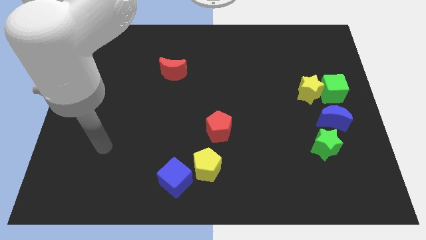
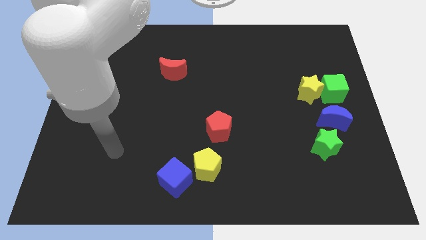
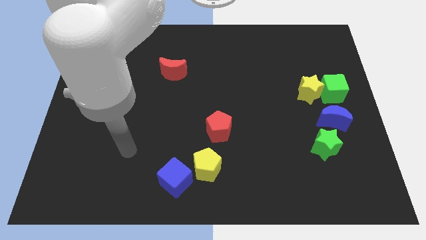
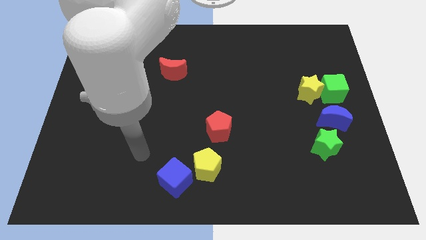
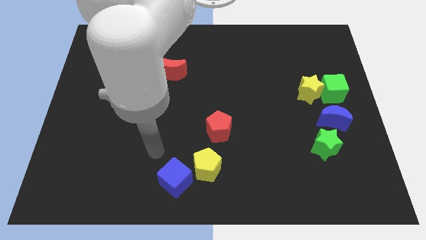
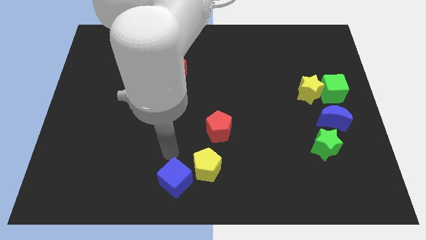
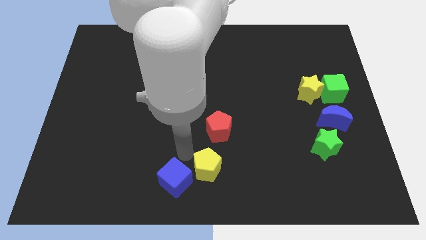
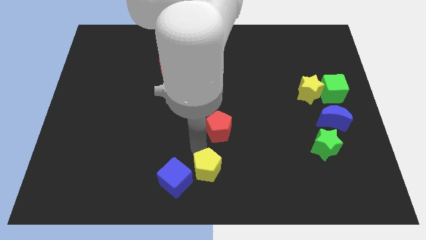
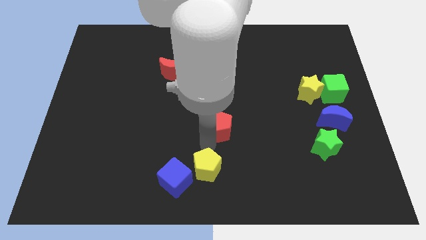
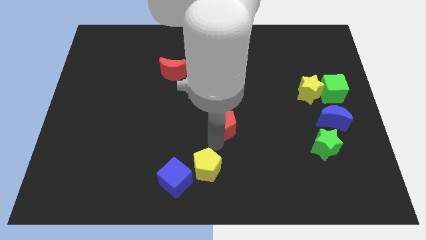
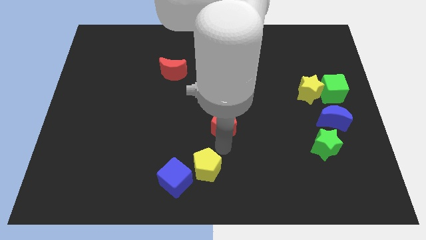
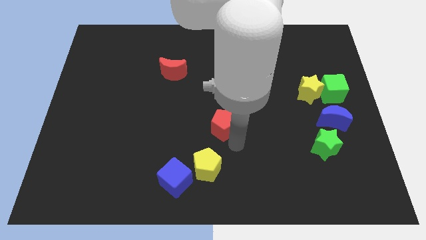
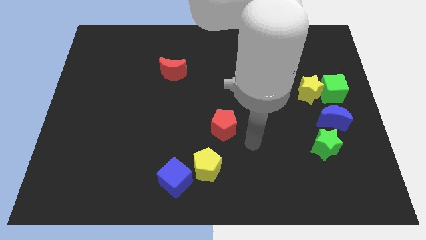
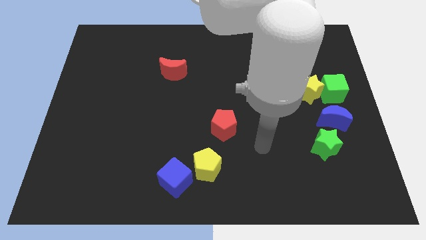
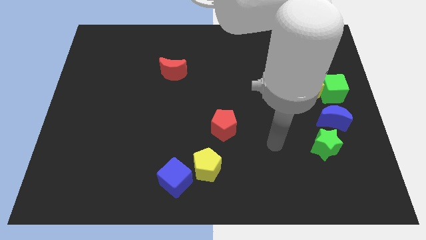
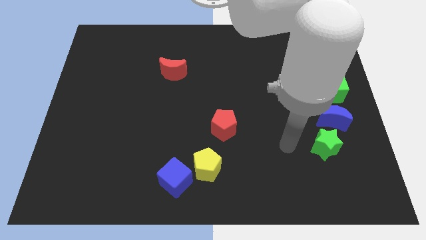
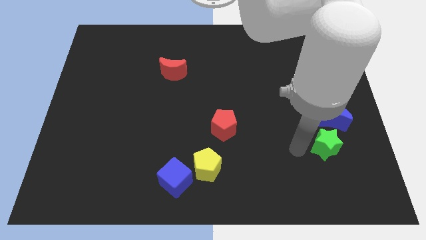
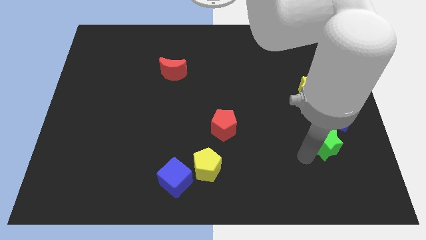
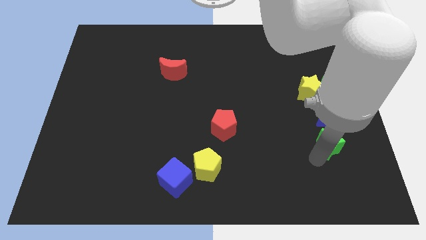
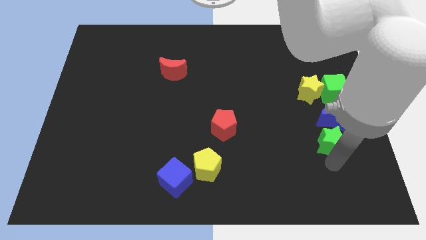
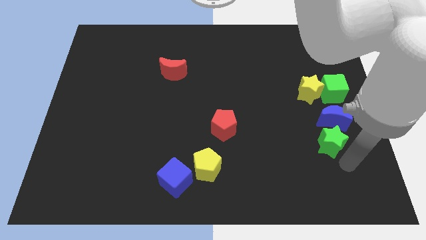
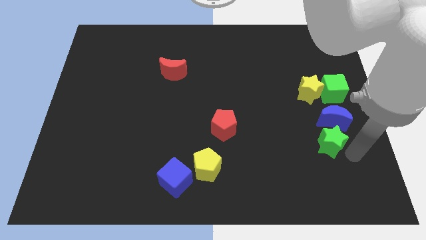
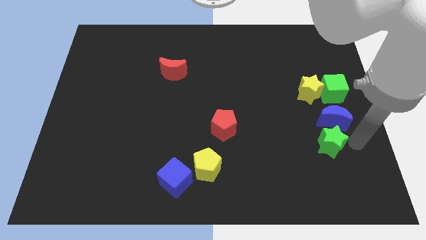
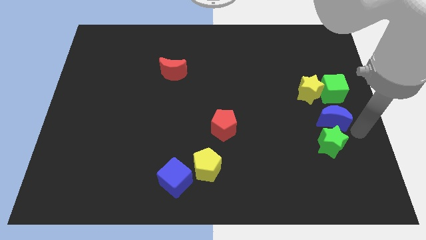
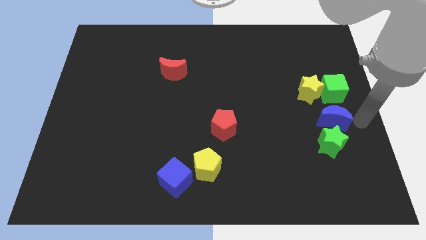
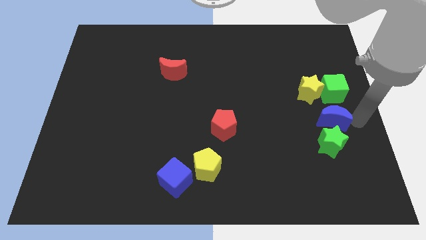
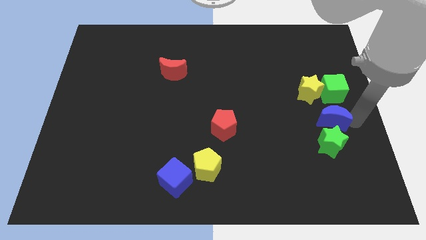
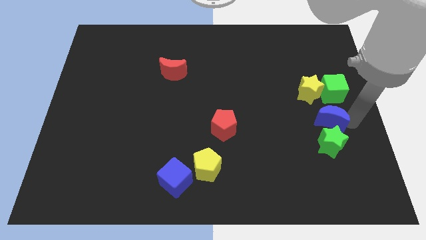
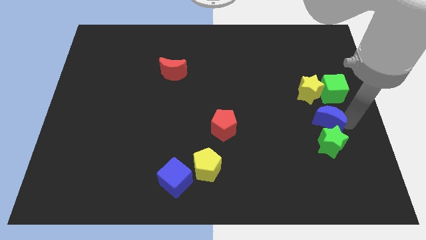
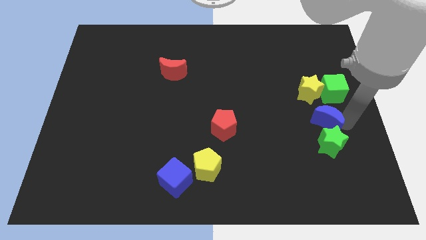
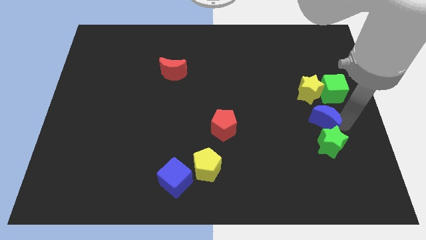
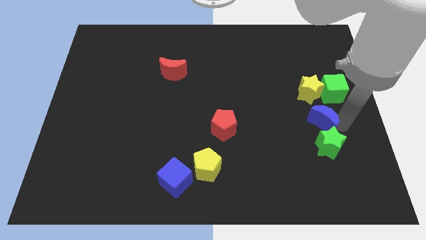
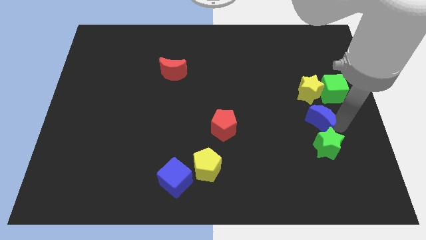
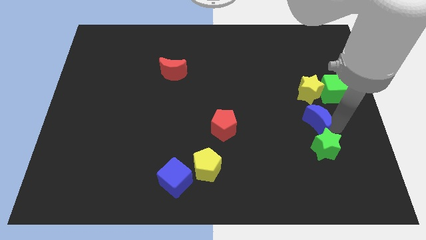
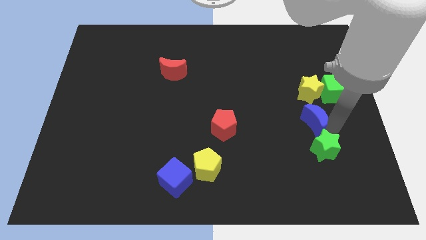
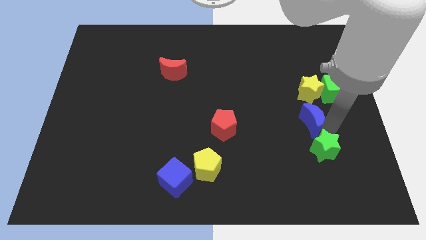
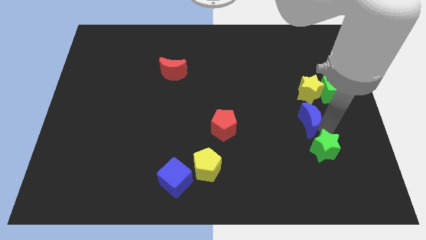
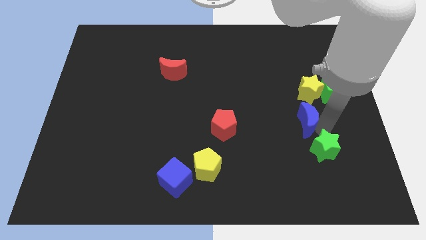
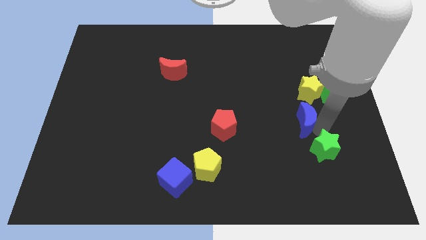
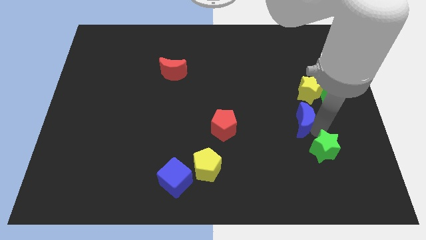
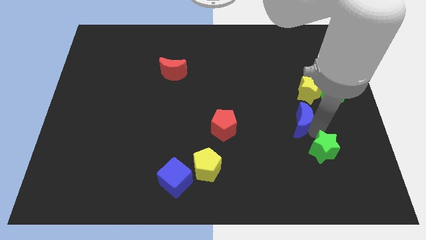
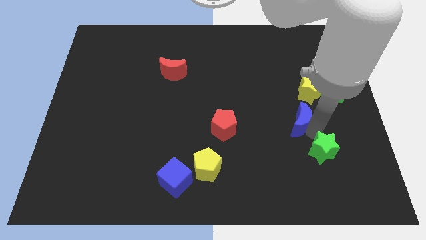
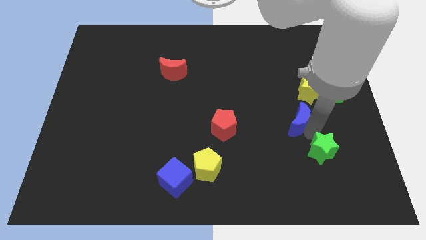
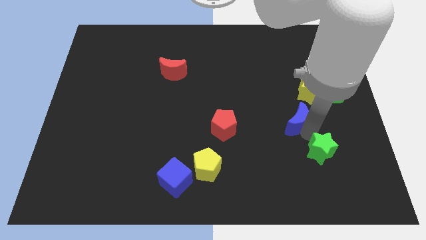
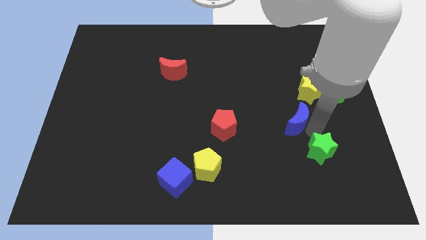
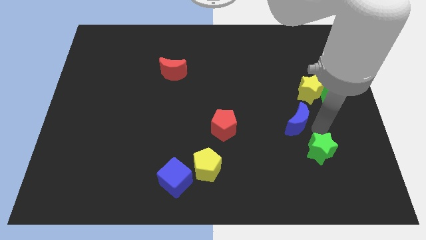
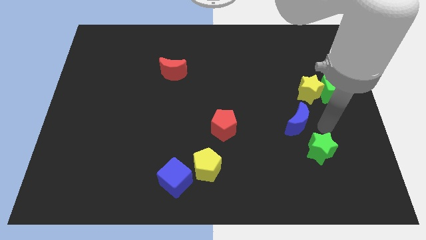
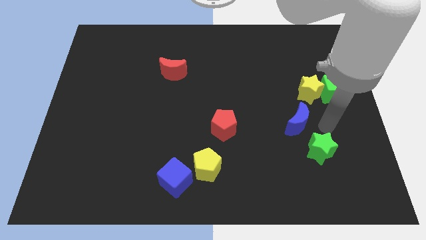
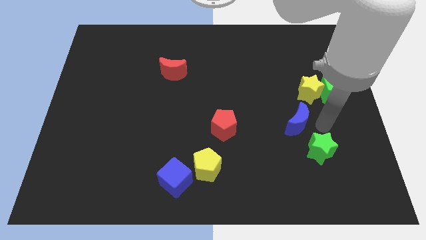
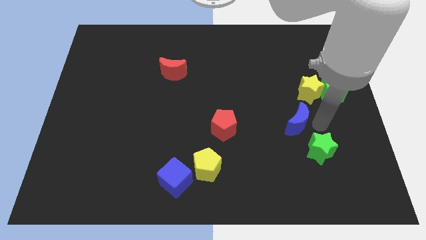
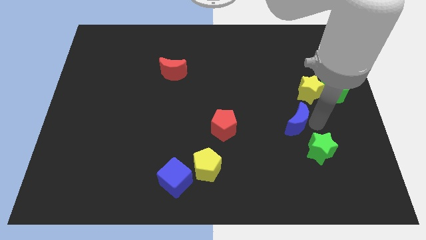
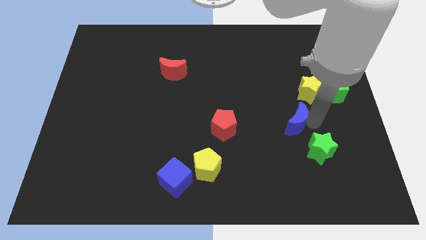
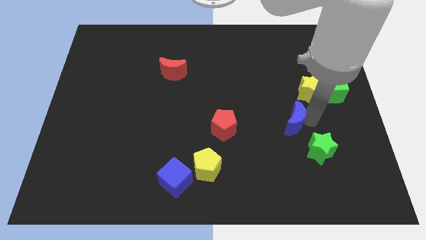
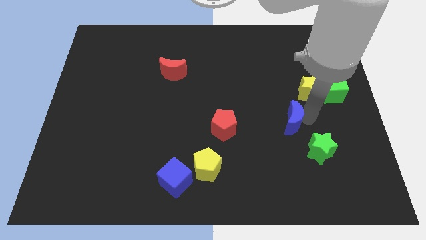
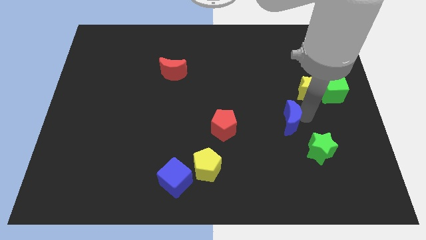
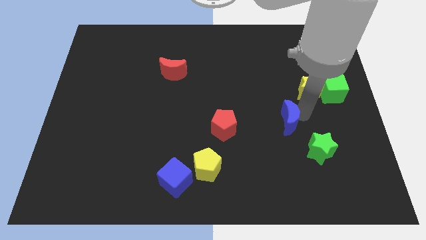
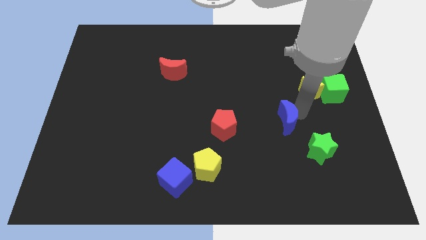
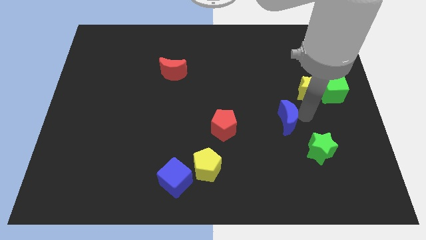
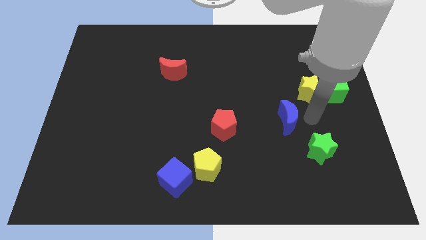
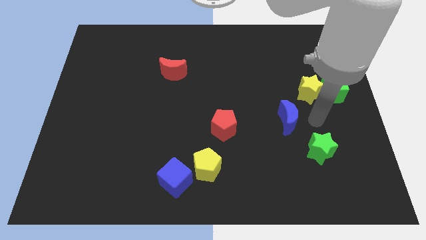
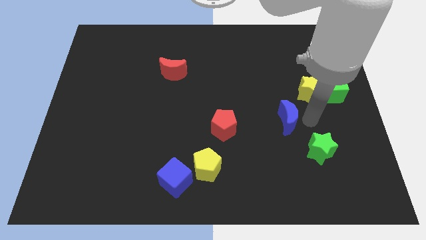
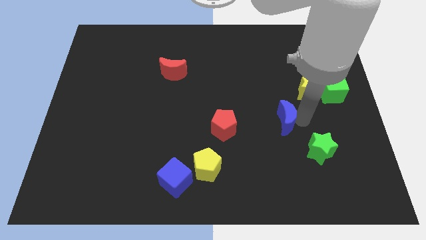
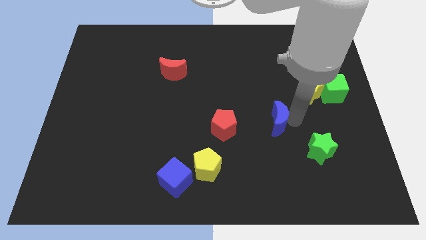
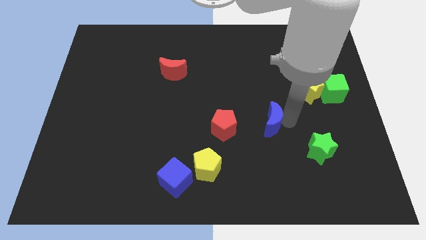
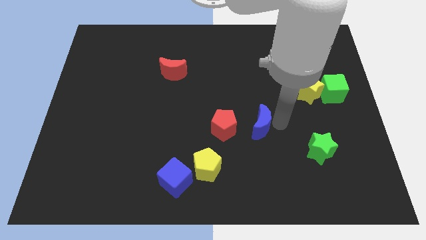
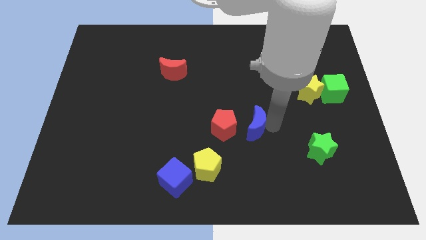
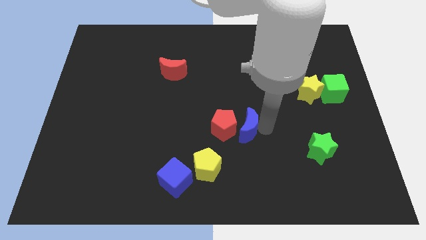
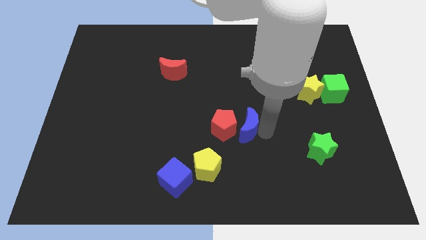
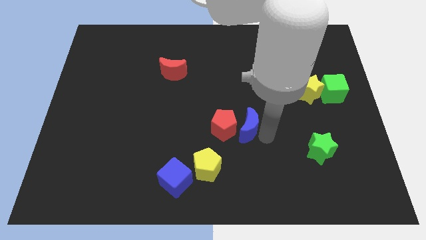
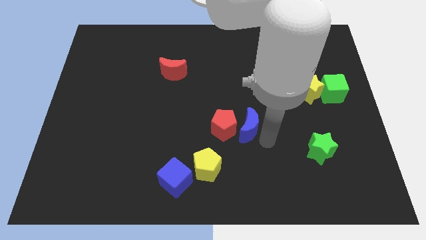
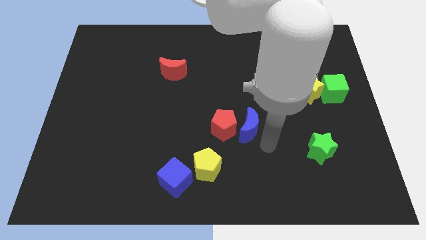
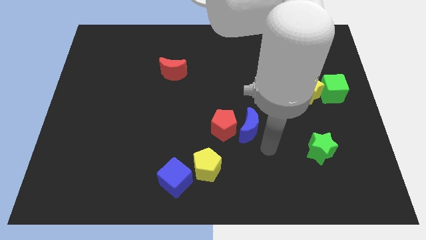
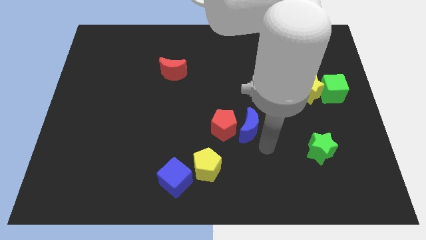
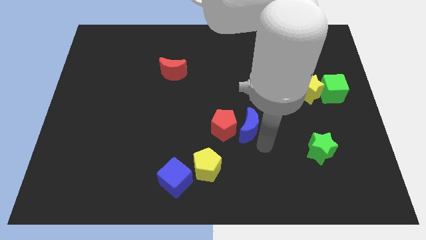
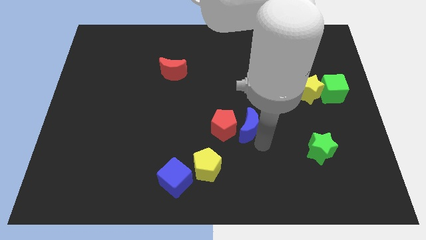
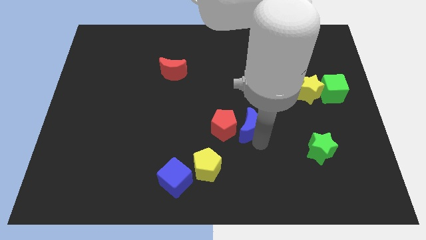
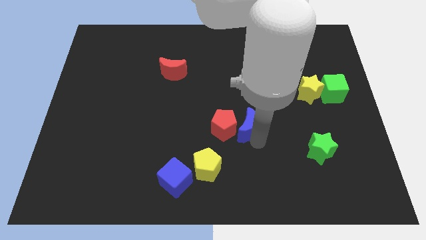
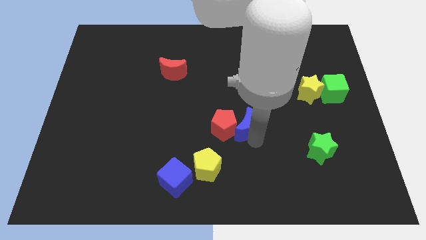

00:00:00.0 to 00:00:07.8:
move the blue moon to the left
